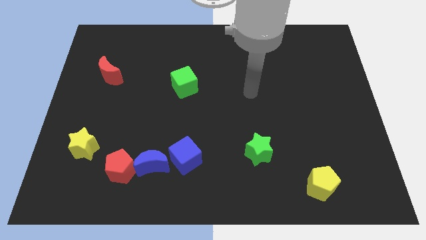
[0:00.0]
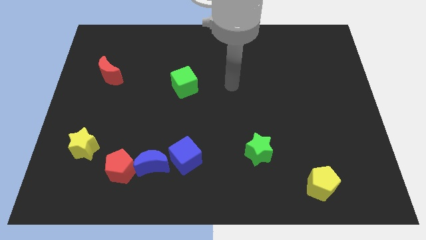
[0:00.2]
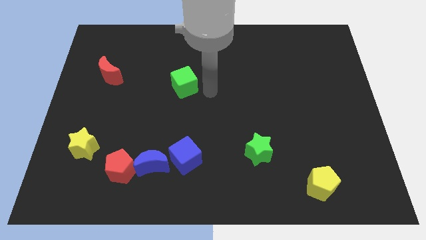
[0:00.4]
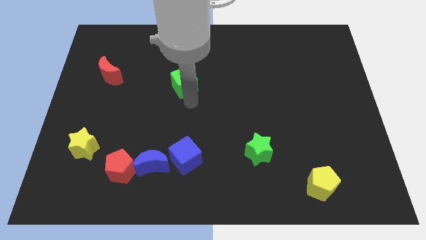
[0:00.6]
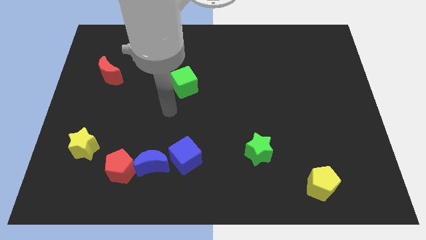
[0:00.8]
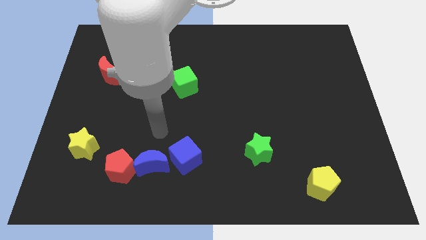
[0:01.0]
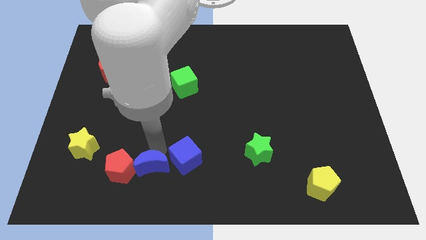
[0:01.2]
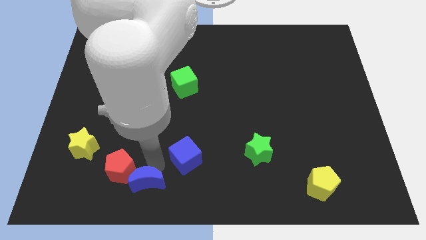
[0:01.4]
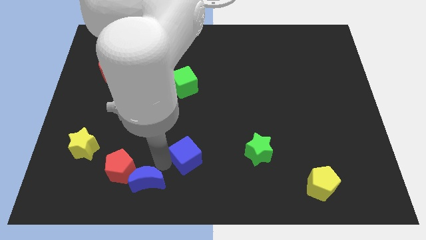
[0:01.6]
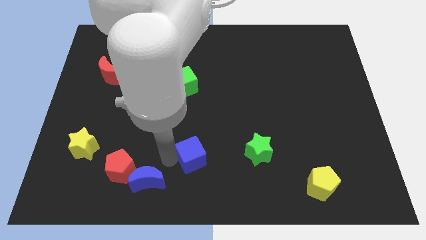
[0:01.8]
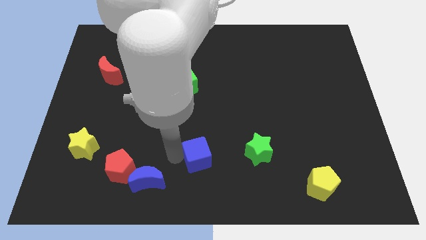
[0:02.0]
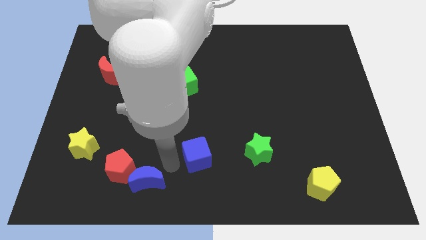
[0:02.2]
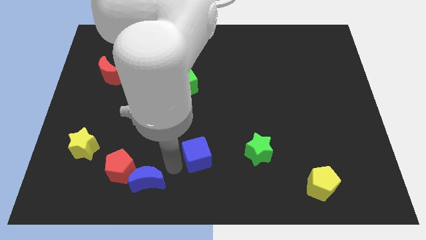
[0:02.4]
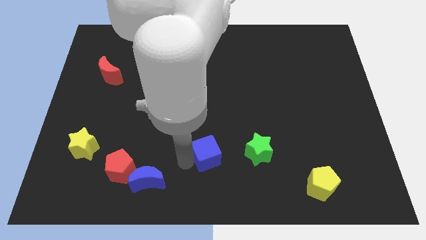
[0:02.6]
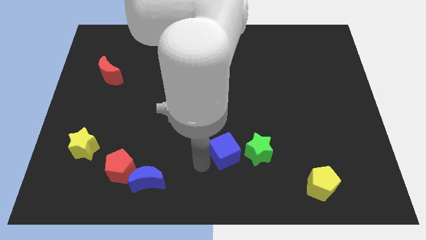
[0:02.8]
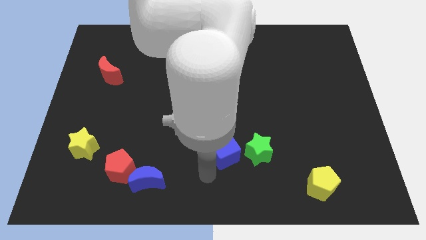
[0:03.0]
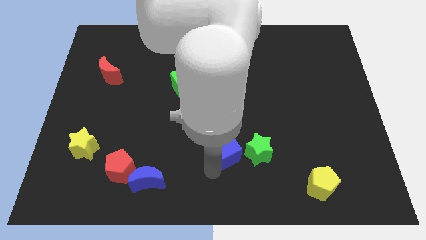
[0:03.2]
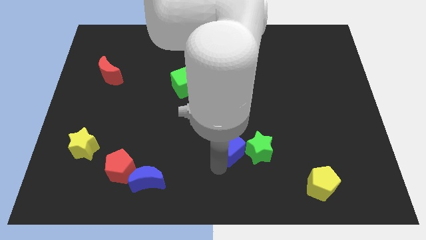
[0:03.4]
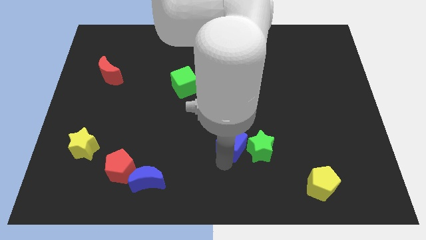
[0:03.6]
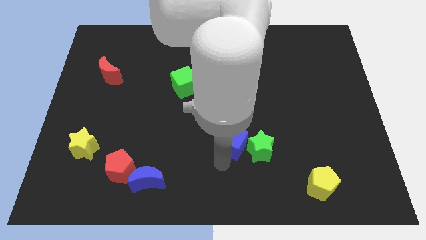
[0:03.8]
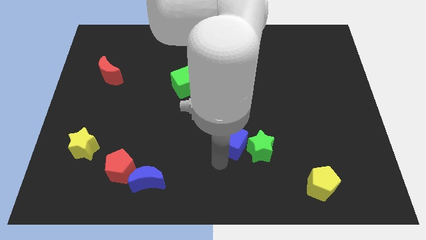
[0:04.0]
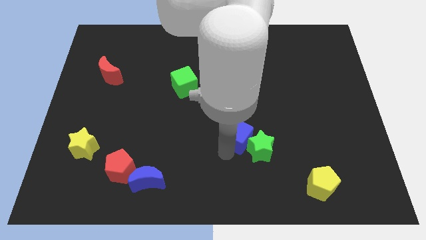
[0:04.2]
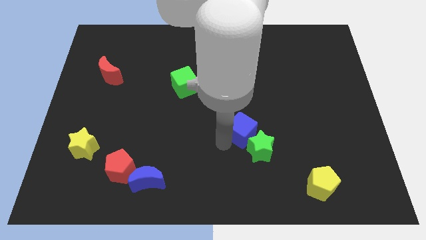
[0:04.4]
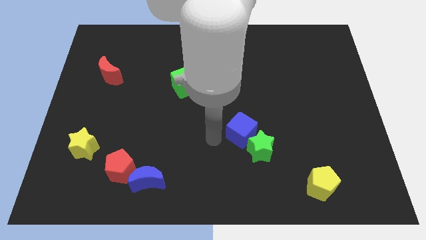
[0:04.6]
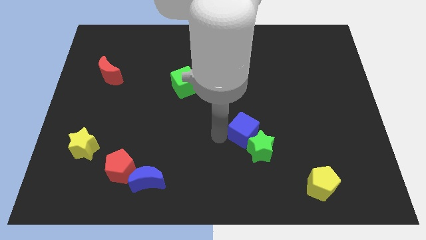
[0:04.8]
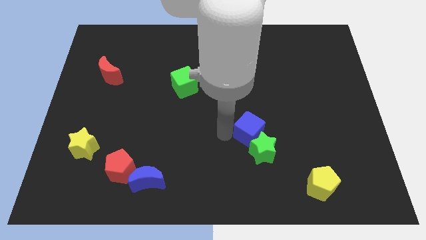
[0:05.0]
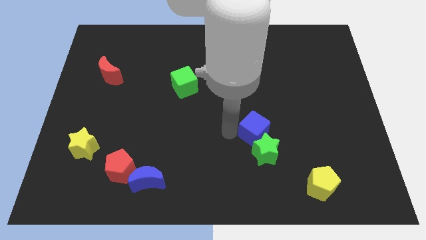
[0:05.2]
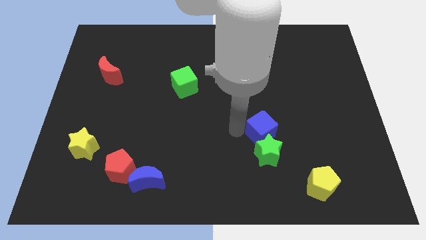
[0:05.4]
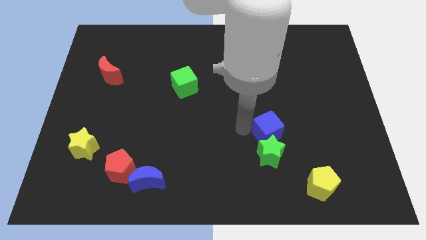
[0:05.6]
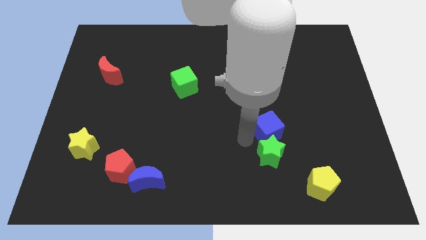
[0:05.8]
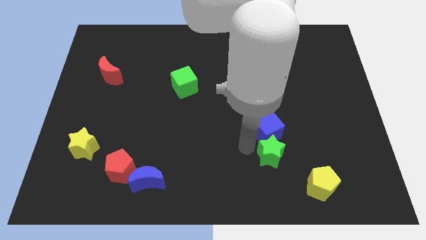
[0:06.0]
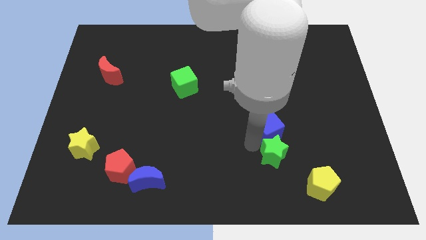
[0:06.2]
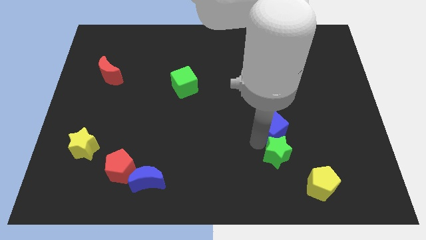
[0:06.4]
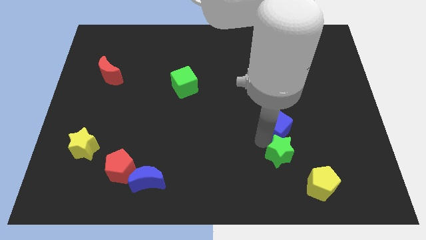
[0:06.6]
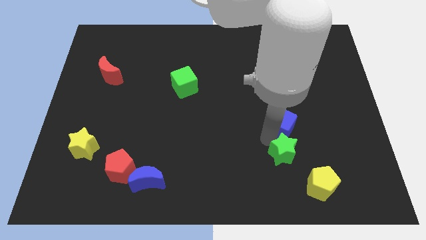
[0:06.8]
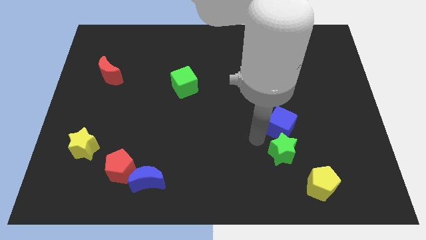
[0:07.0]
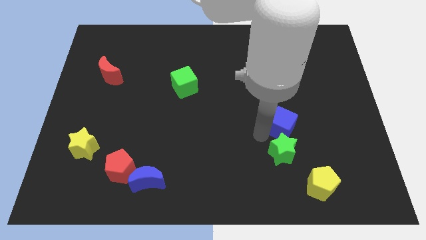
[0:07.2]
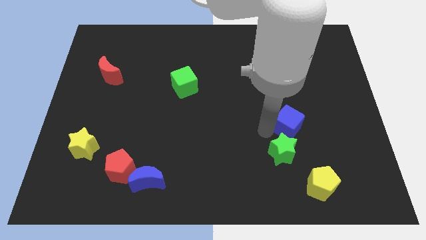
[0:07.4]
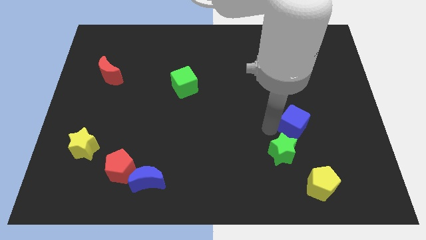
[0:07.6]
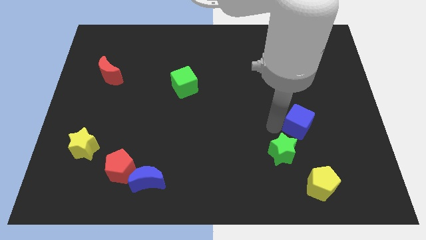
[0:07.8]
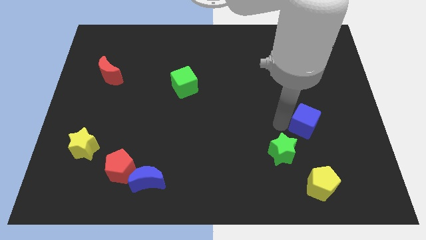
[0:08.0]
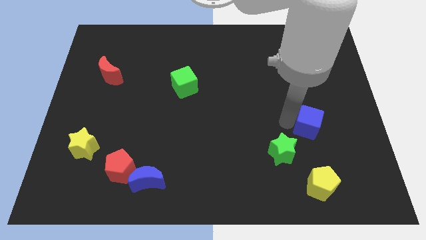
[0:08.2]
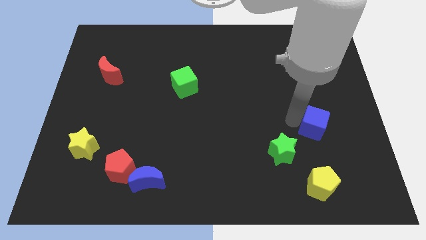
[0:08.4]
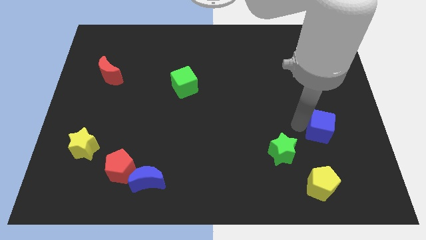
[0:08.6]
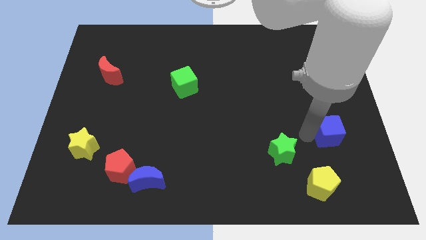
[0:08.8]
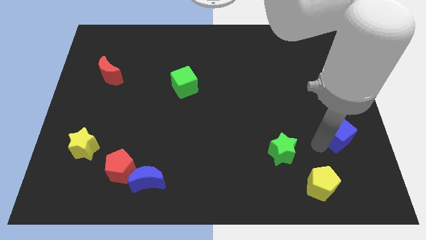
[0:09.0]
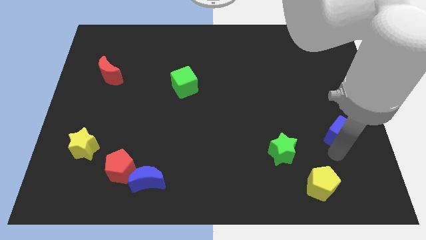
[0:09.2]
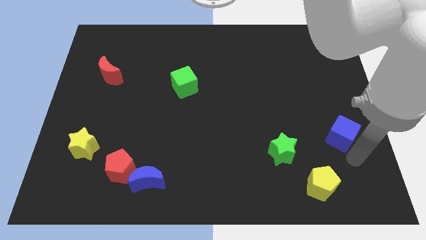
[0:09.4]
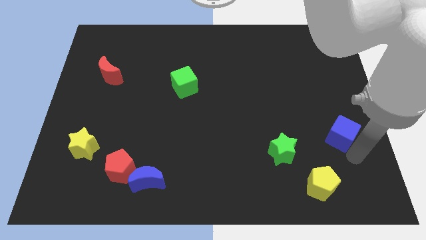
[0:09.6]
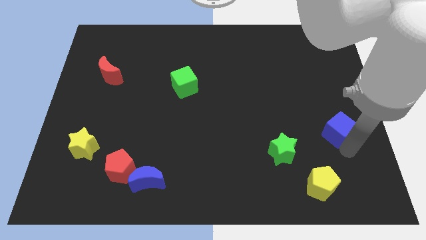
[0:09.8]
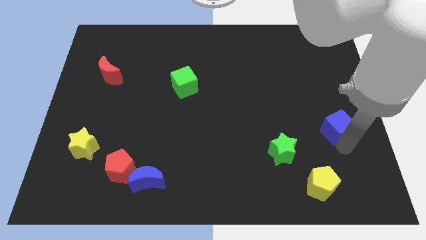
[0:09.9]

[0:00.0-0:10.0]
put the blue cube to the center right

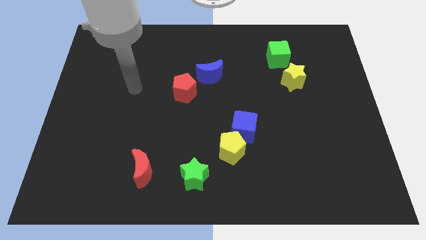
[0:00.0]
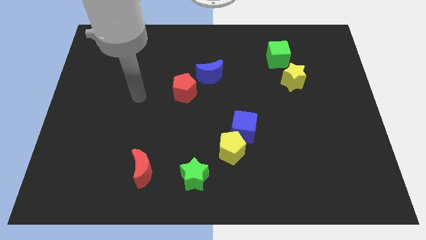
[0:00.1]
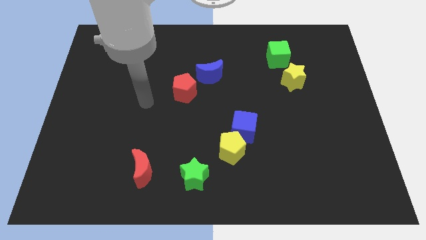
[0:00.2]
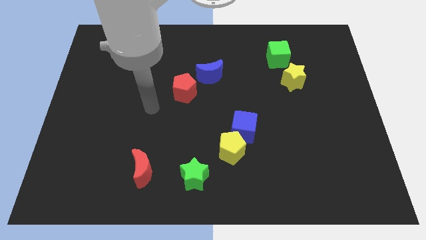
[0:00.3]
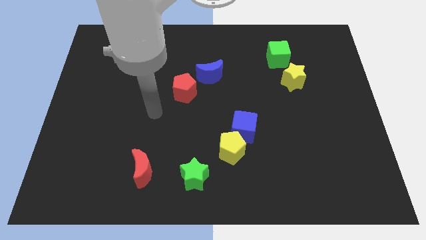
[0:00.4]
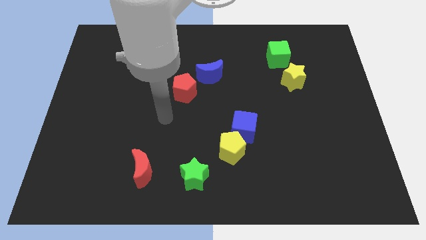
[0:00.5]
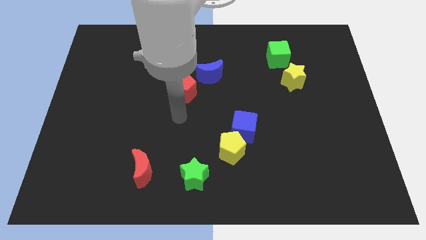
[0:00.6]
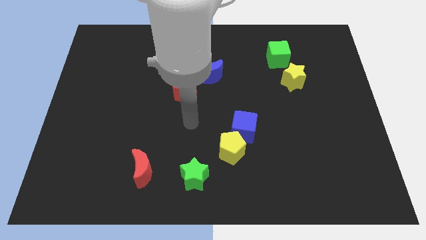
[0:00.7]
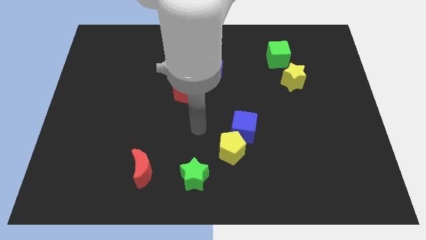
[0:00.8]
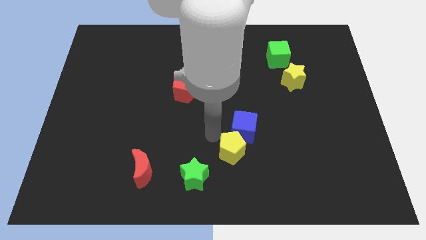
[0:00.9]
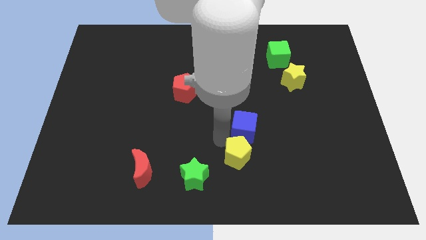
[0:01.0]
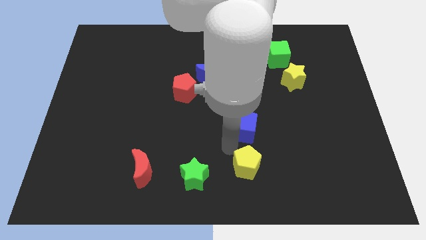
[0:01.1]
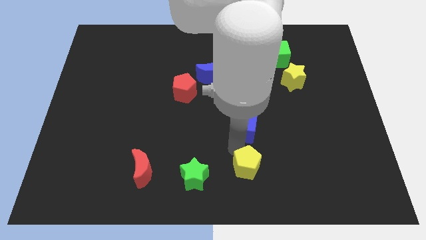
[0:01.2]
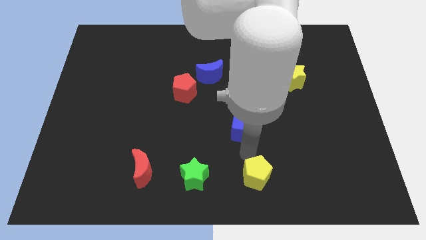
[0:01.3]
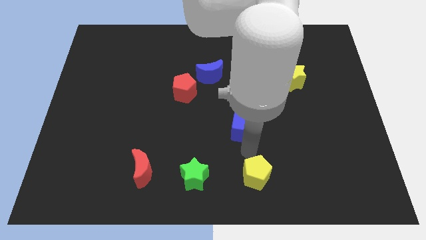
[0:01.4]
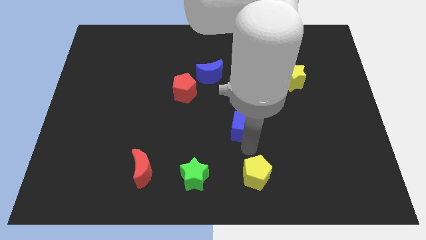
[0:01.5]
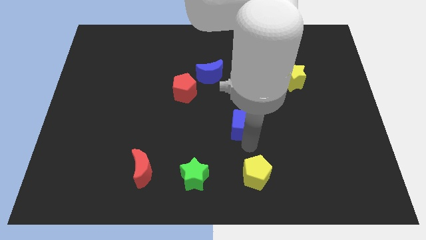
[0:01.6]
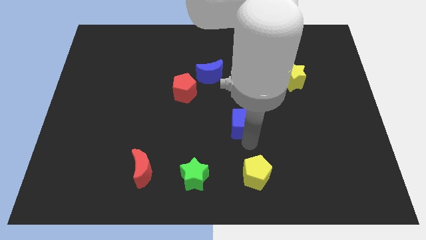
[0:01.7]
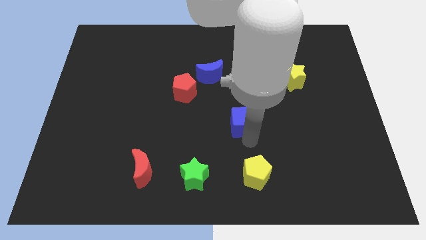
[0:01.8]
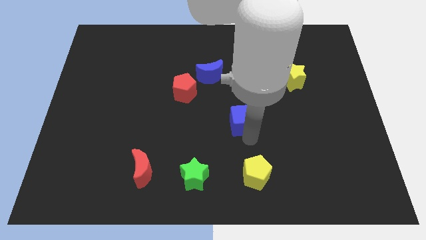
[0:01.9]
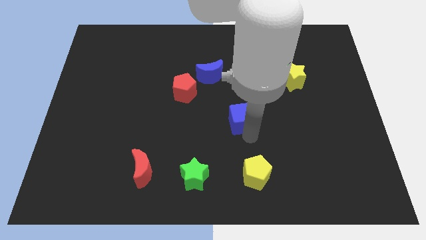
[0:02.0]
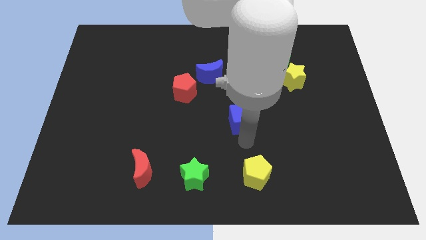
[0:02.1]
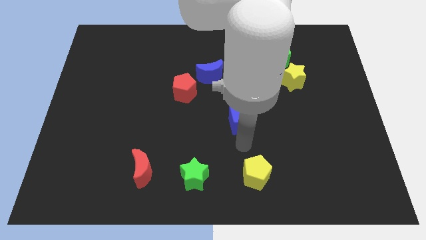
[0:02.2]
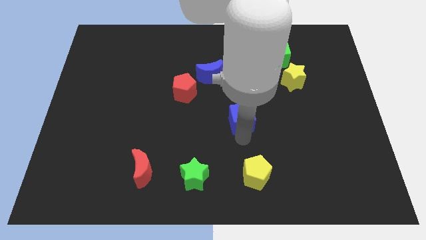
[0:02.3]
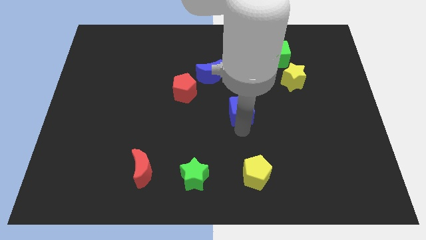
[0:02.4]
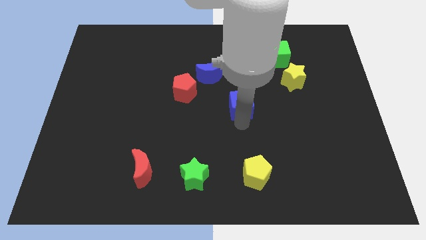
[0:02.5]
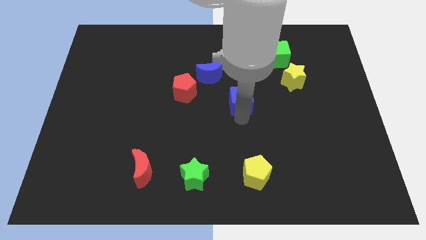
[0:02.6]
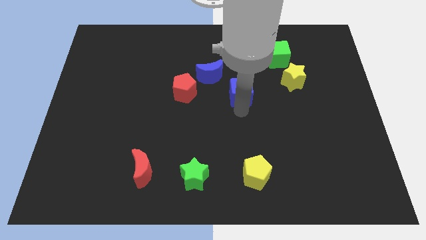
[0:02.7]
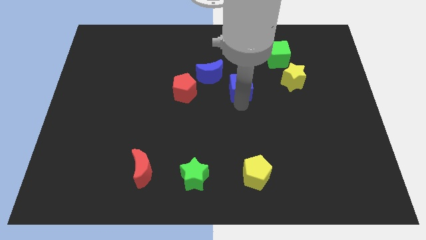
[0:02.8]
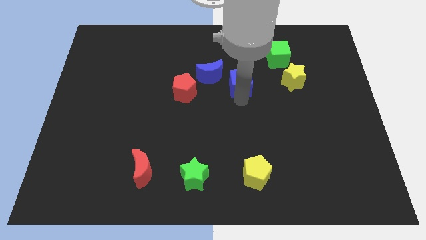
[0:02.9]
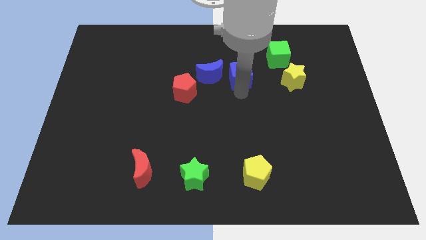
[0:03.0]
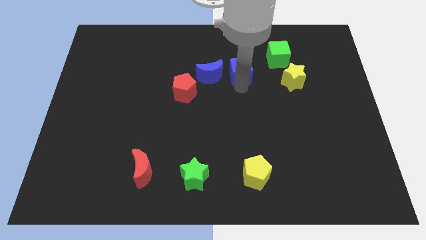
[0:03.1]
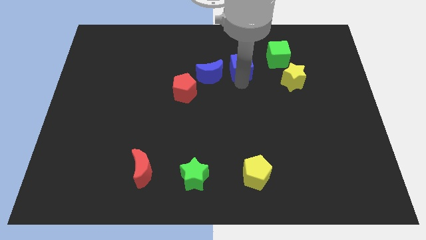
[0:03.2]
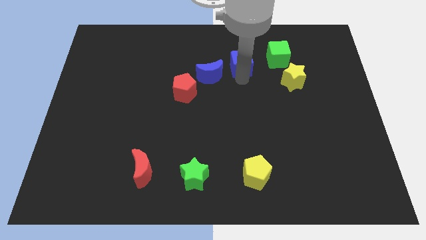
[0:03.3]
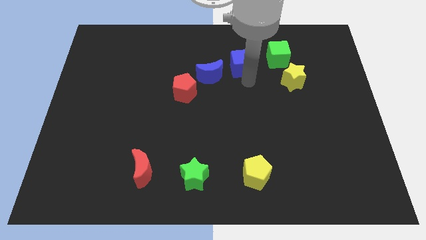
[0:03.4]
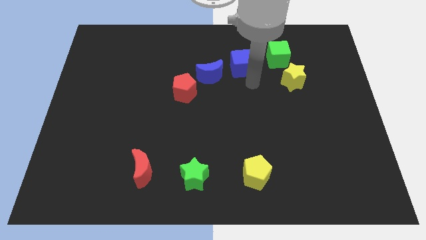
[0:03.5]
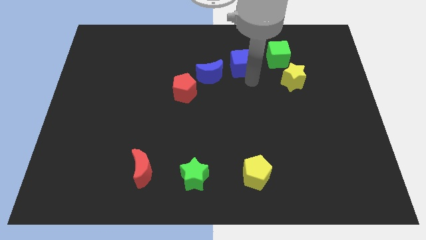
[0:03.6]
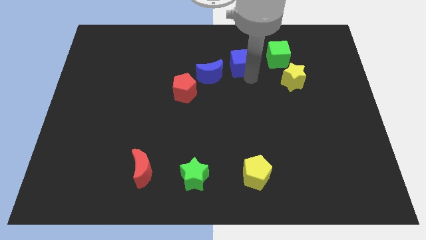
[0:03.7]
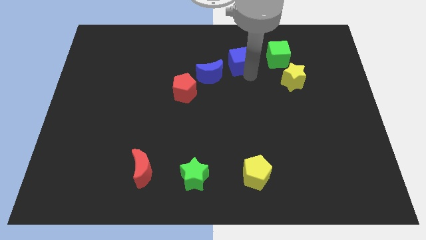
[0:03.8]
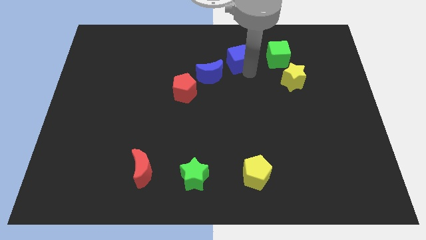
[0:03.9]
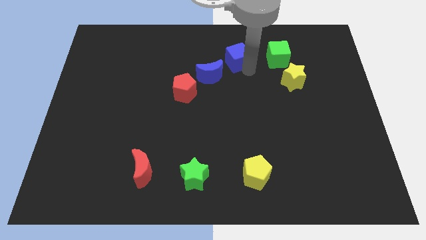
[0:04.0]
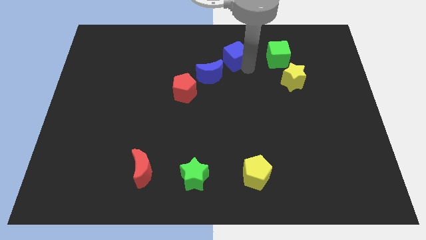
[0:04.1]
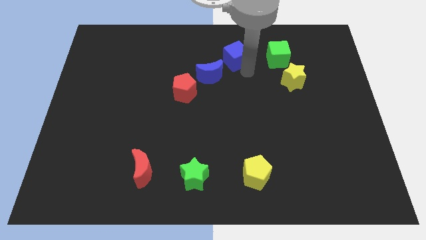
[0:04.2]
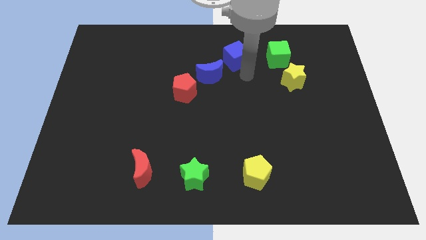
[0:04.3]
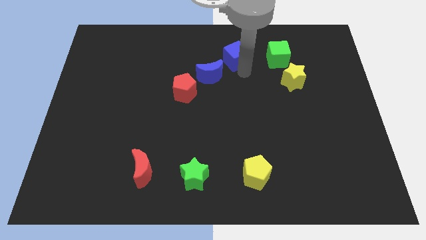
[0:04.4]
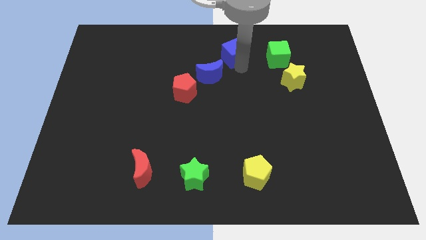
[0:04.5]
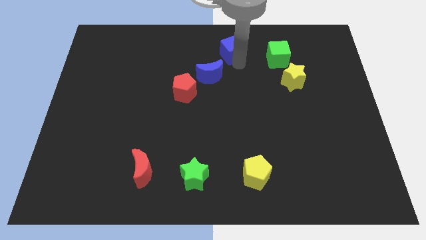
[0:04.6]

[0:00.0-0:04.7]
move the blue cube to the top side
